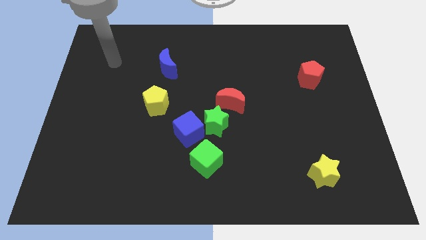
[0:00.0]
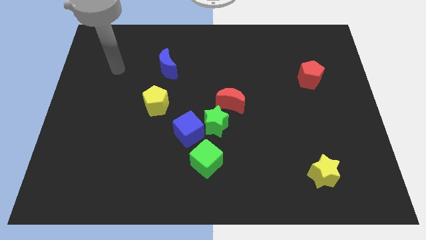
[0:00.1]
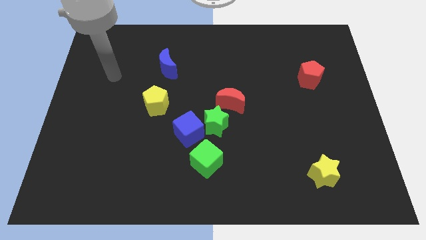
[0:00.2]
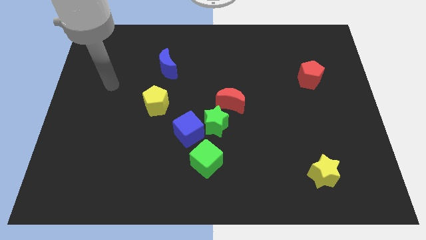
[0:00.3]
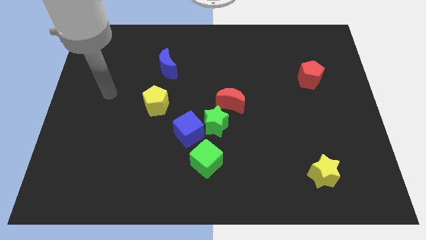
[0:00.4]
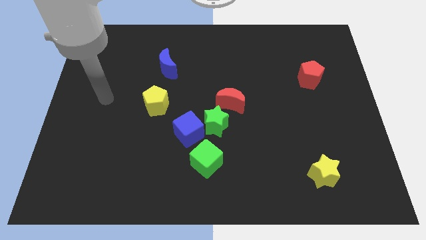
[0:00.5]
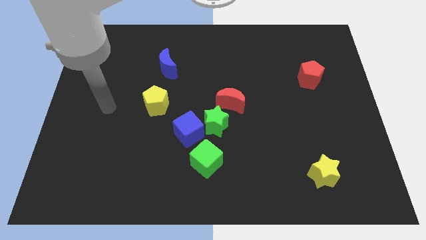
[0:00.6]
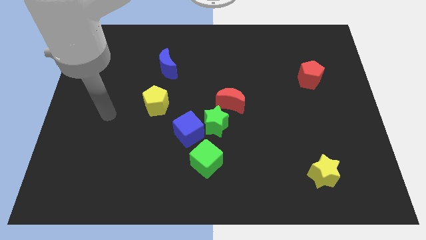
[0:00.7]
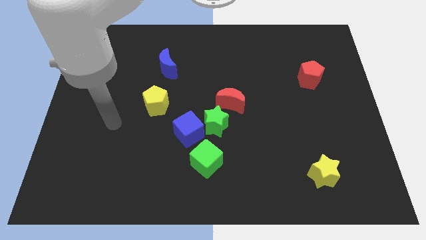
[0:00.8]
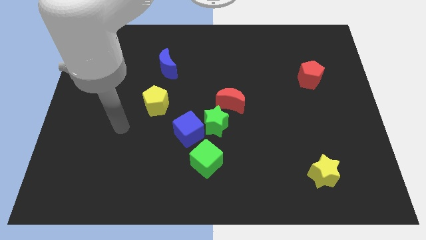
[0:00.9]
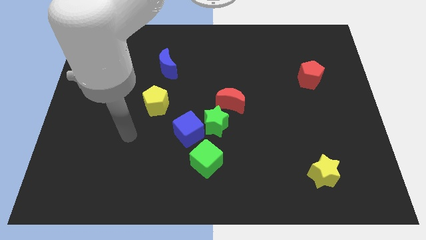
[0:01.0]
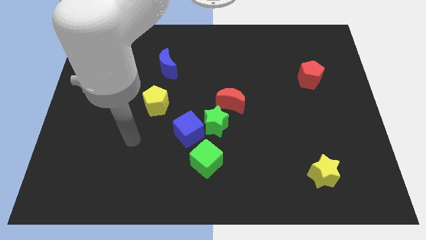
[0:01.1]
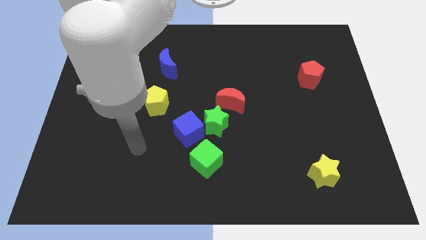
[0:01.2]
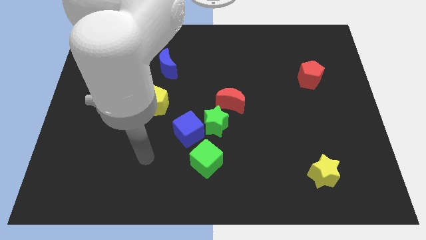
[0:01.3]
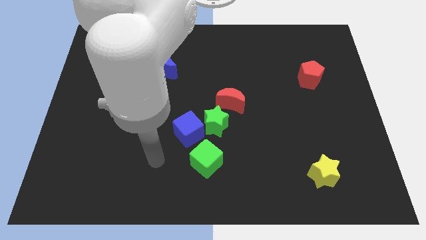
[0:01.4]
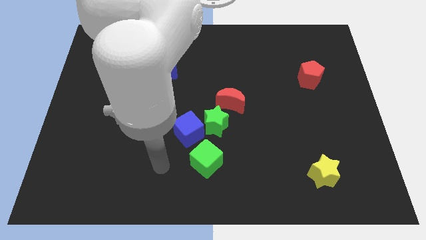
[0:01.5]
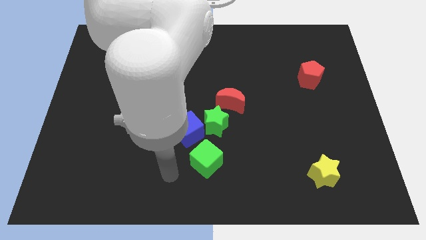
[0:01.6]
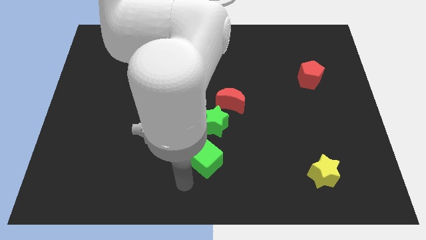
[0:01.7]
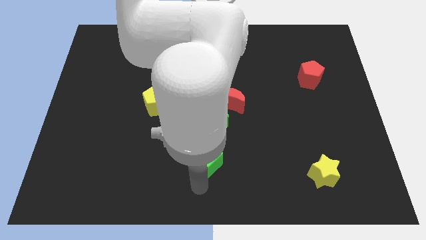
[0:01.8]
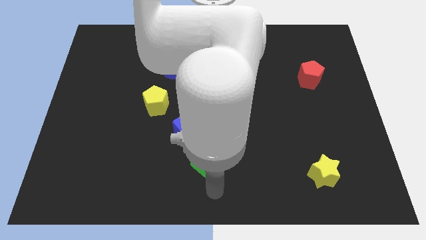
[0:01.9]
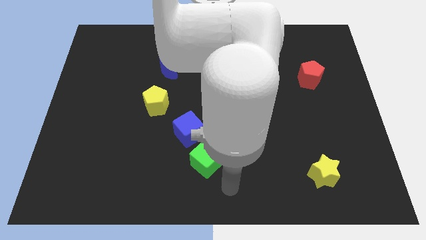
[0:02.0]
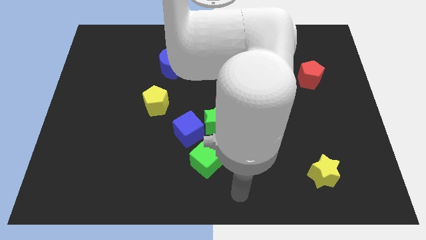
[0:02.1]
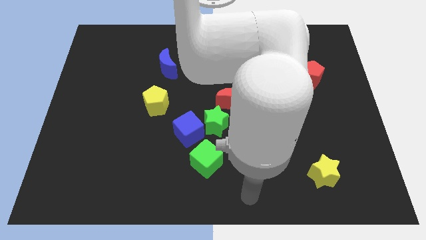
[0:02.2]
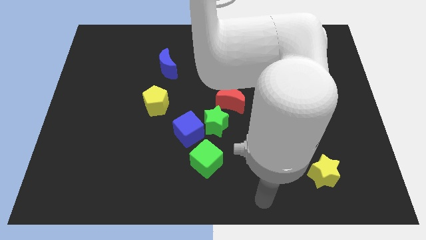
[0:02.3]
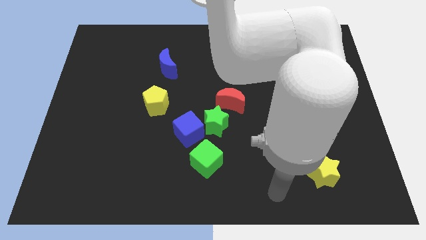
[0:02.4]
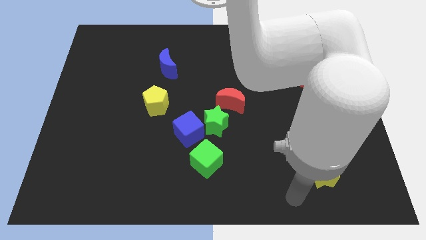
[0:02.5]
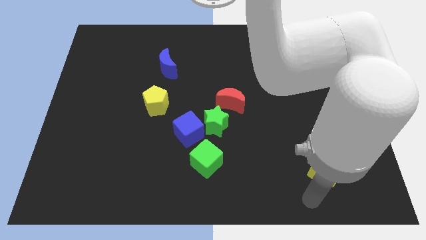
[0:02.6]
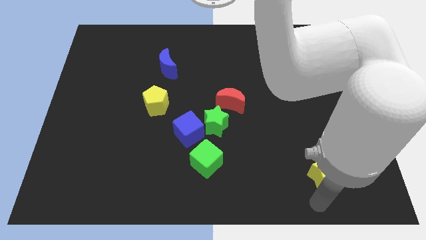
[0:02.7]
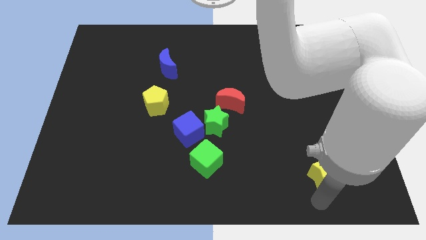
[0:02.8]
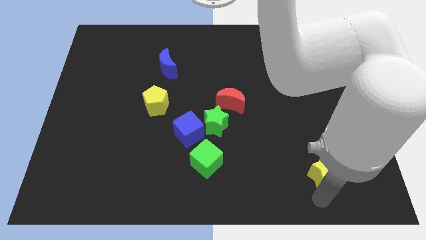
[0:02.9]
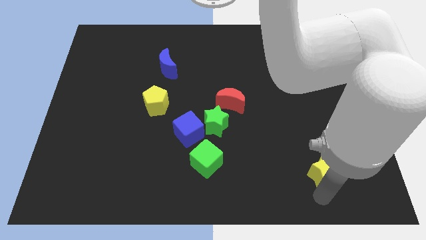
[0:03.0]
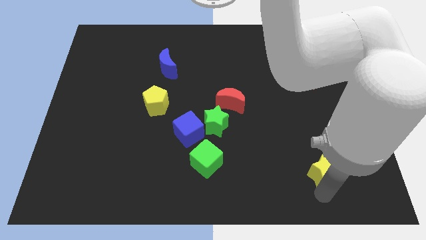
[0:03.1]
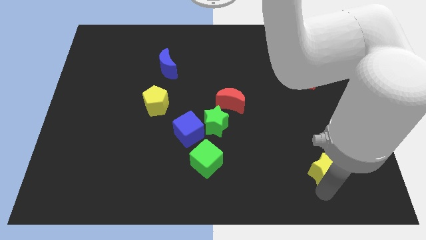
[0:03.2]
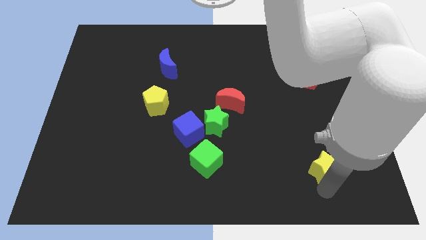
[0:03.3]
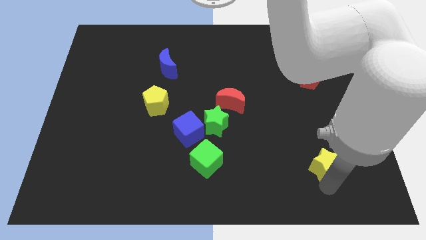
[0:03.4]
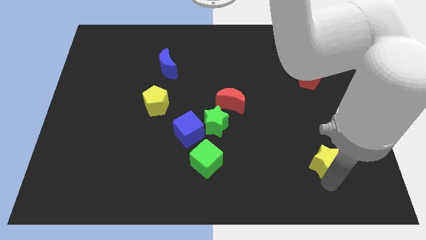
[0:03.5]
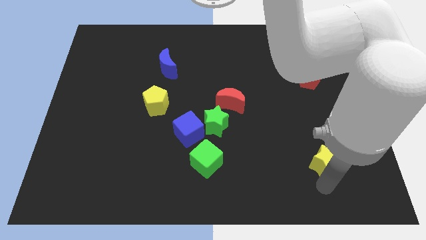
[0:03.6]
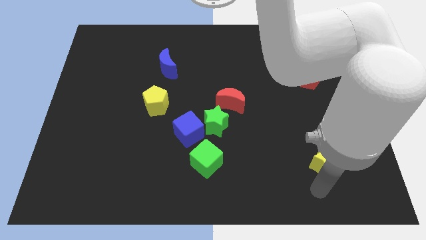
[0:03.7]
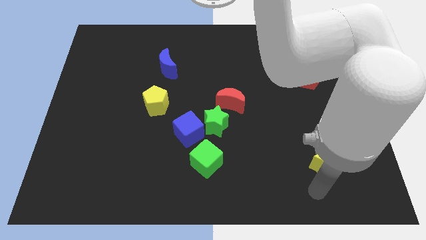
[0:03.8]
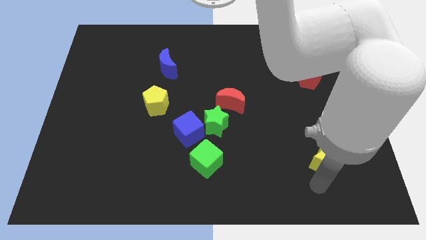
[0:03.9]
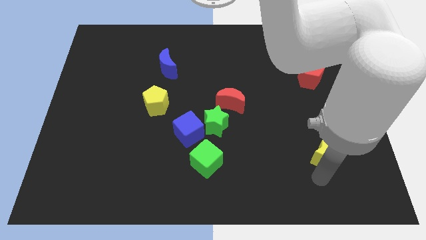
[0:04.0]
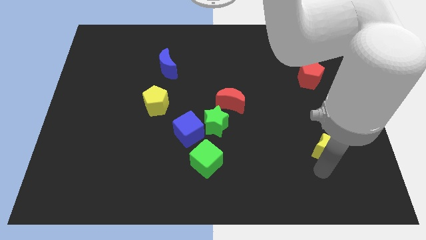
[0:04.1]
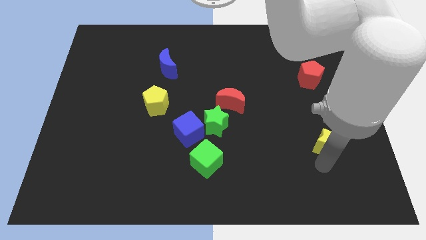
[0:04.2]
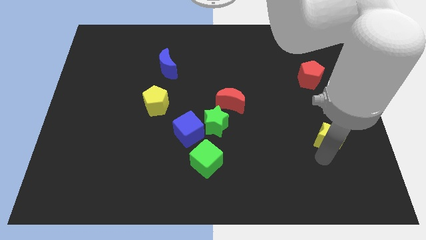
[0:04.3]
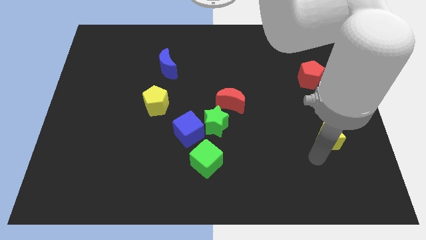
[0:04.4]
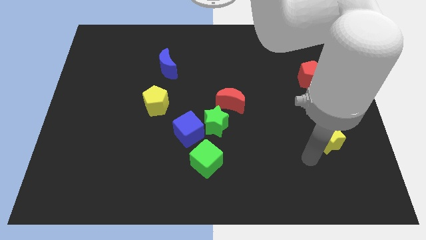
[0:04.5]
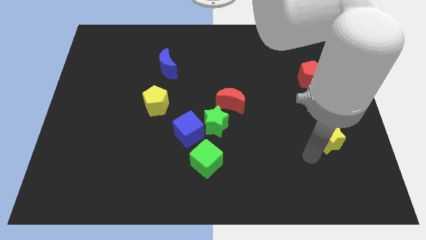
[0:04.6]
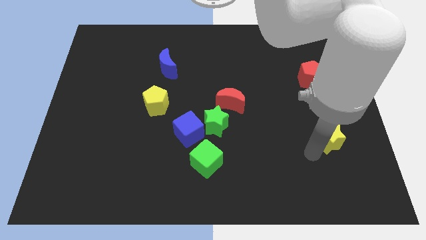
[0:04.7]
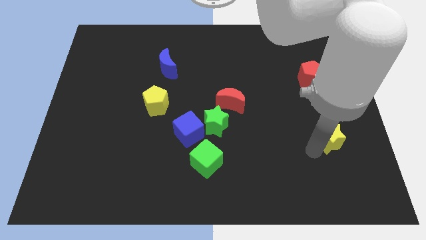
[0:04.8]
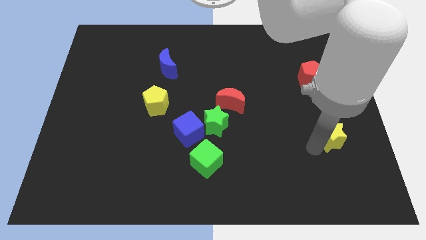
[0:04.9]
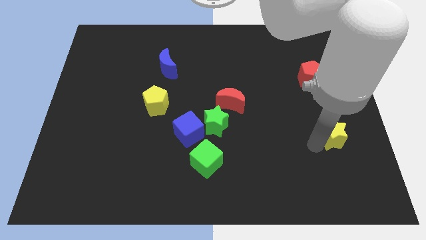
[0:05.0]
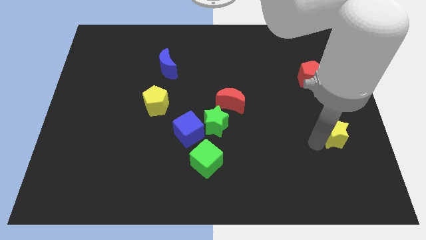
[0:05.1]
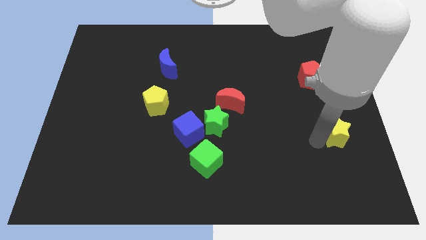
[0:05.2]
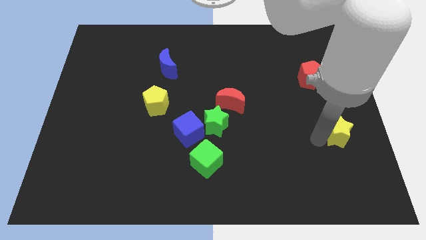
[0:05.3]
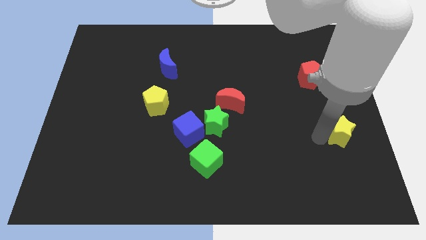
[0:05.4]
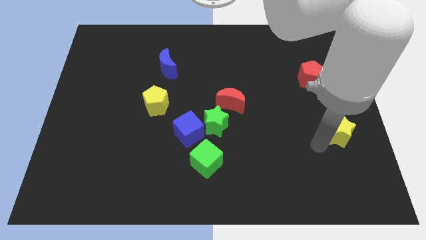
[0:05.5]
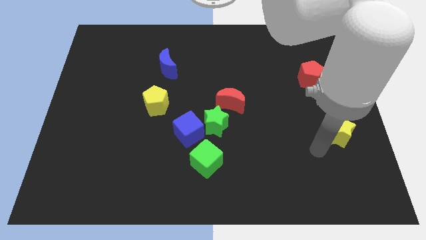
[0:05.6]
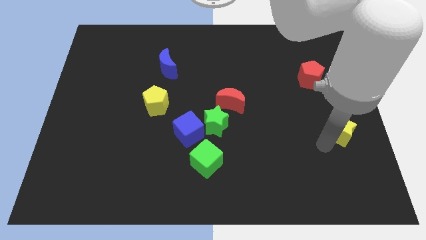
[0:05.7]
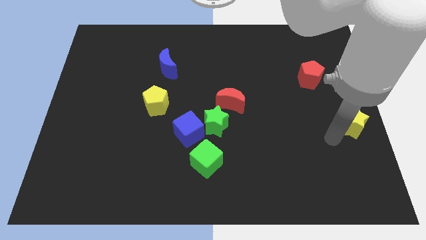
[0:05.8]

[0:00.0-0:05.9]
push the yellow star to the center right
